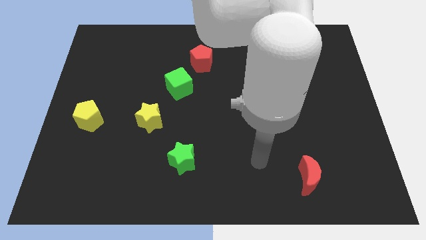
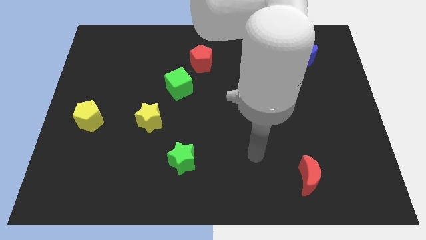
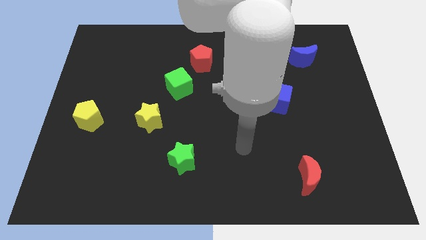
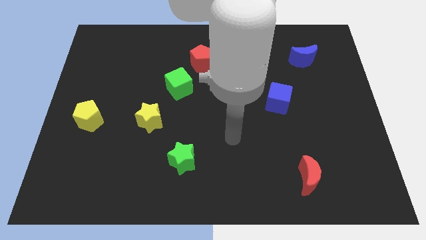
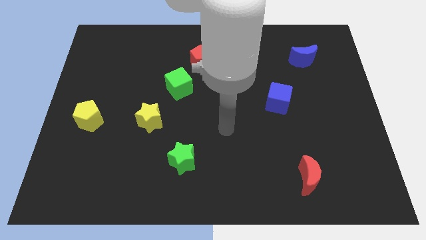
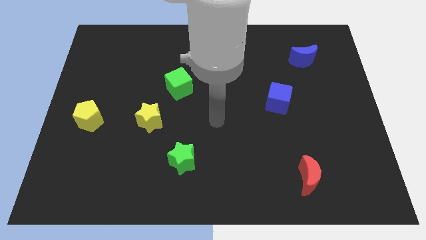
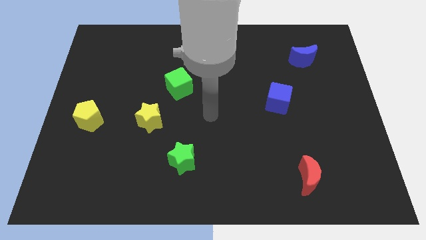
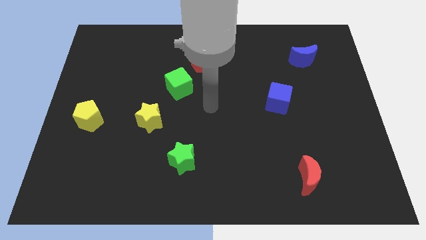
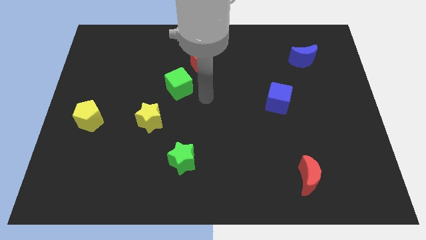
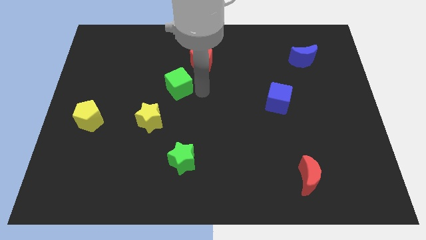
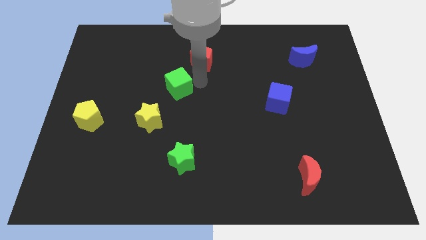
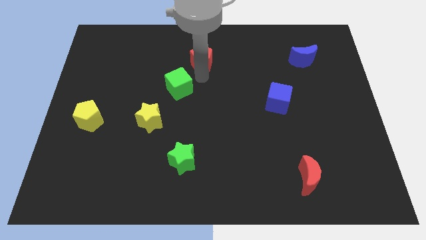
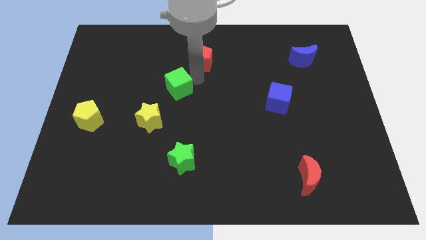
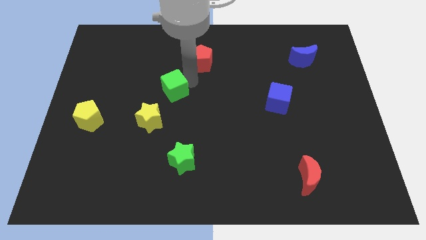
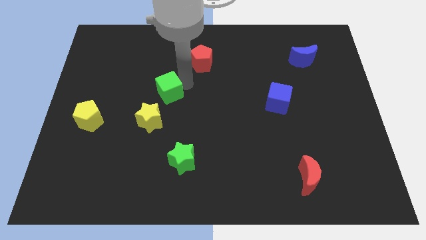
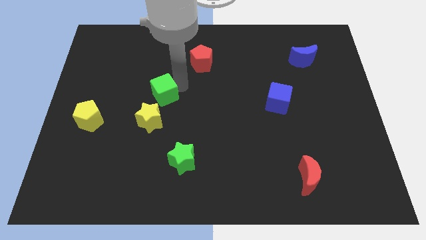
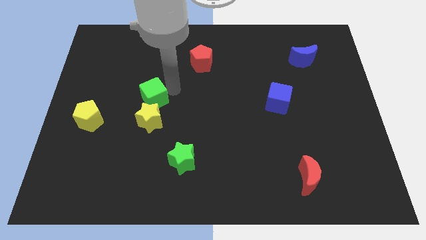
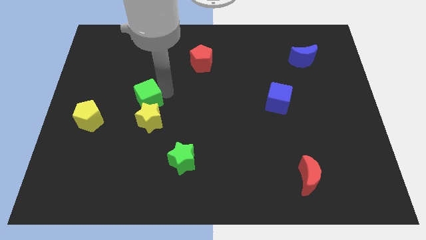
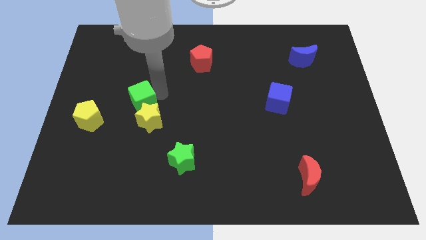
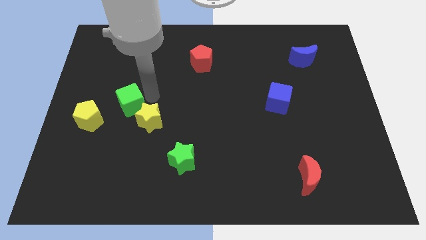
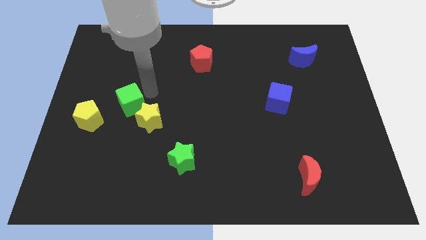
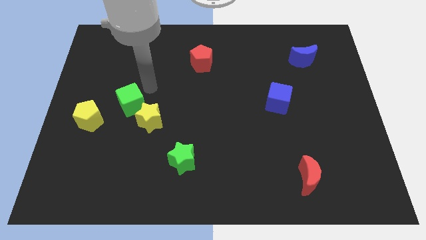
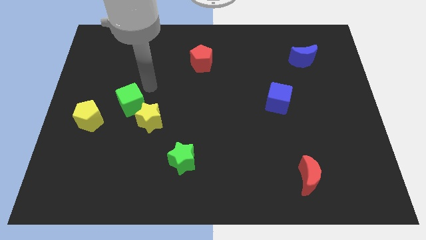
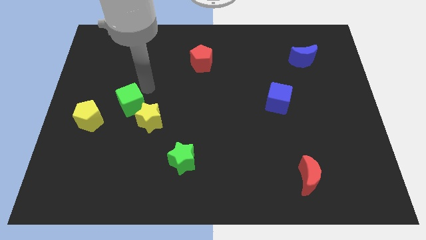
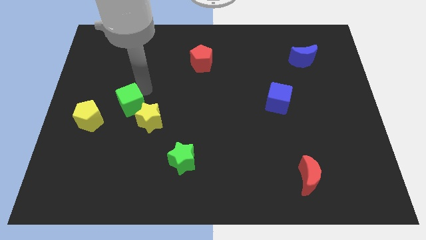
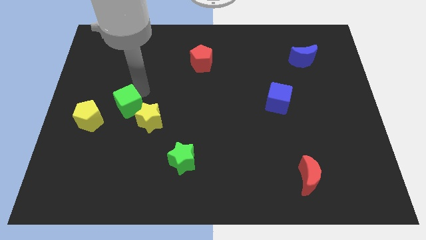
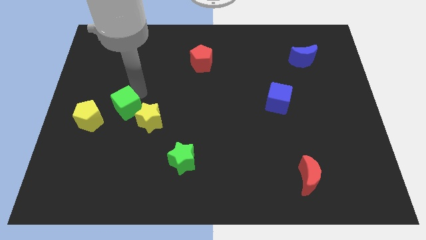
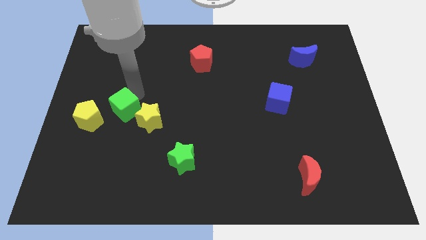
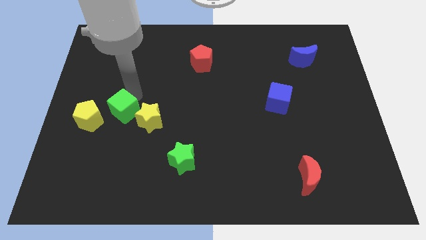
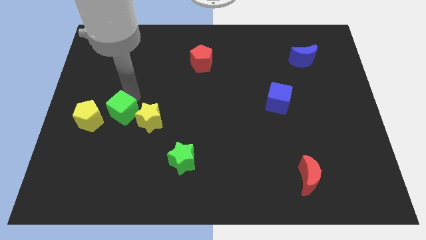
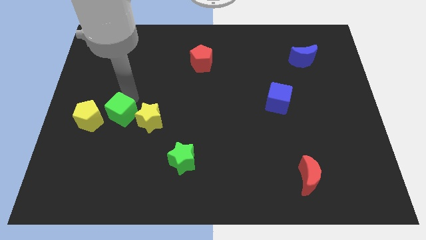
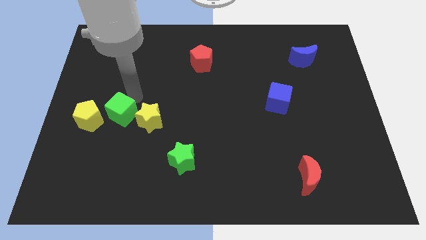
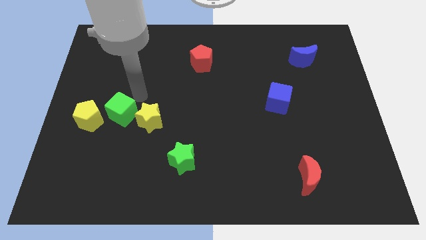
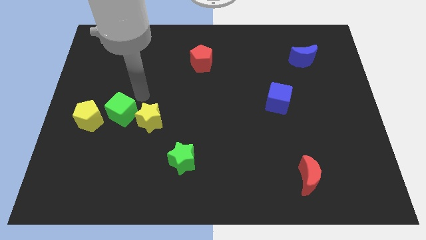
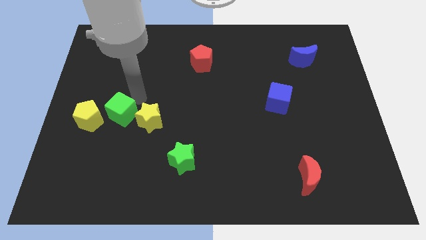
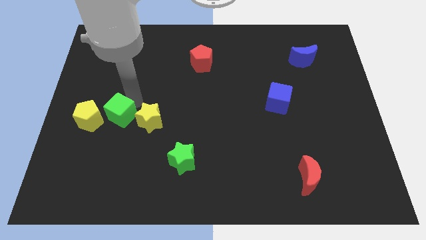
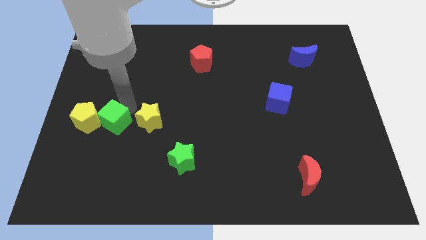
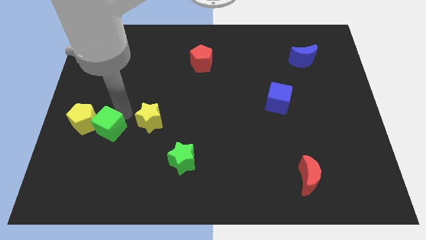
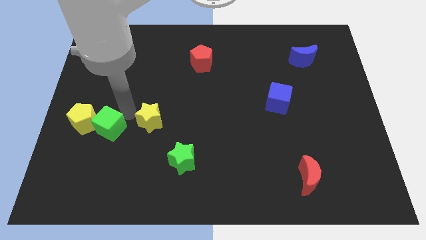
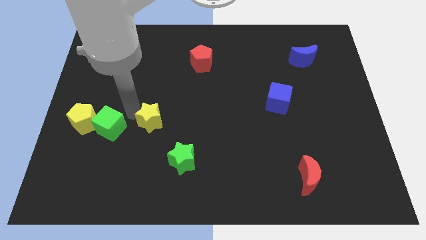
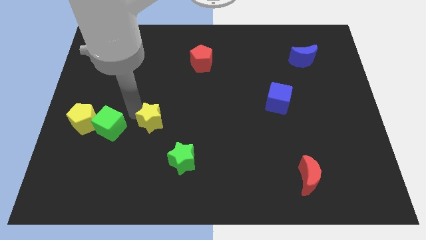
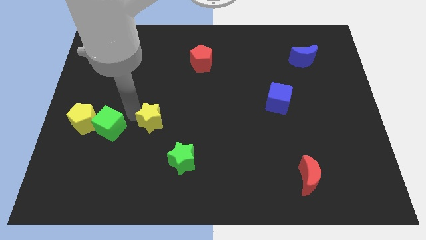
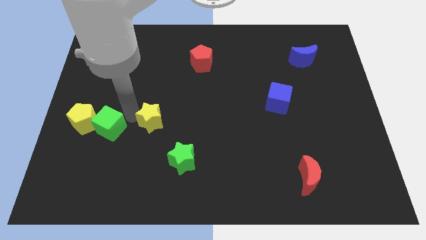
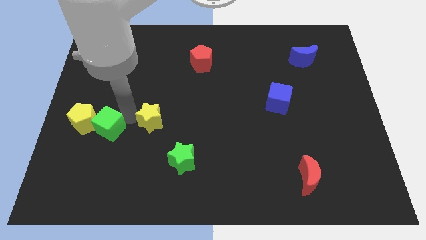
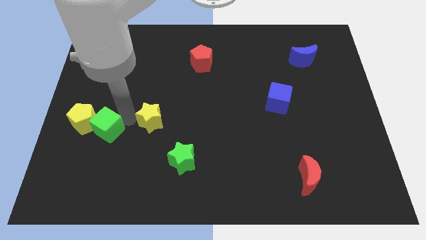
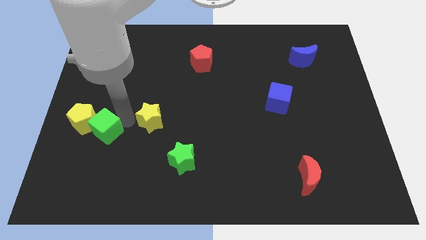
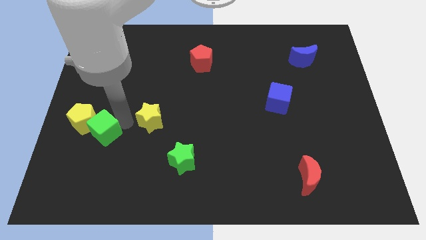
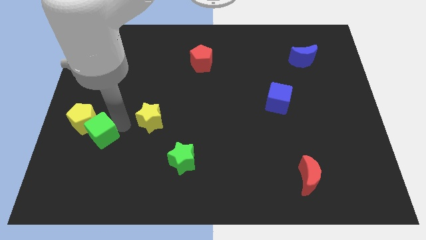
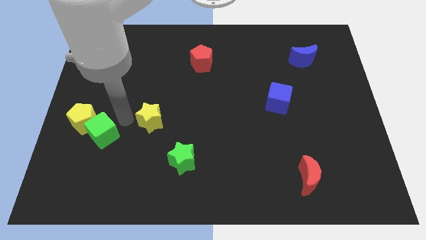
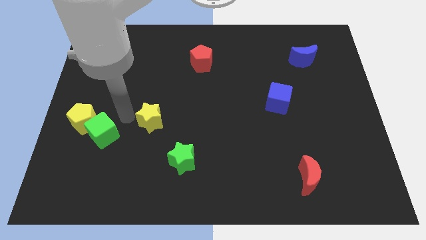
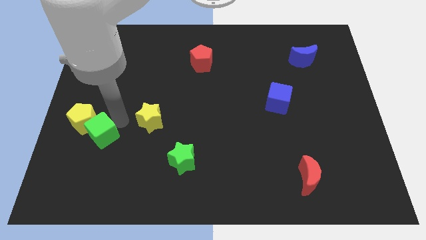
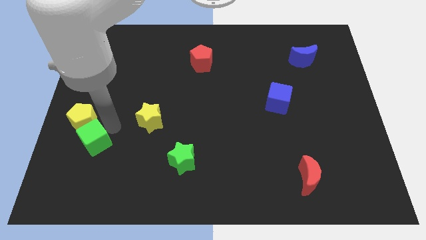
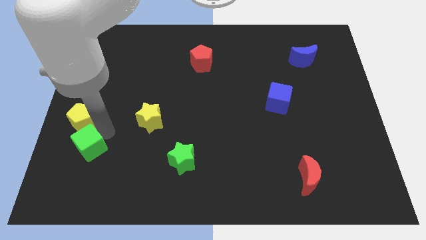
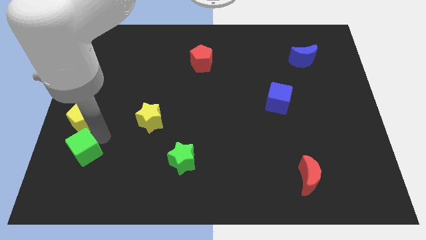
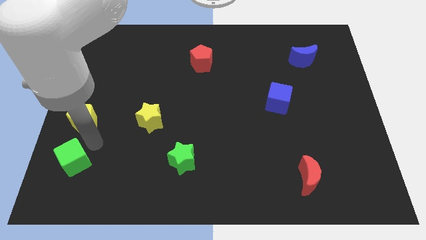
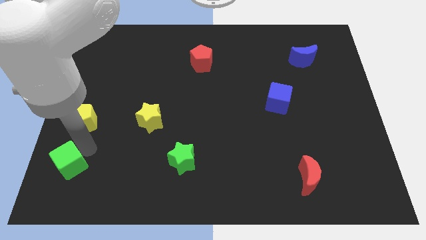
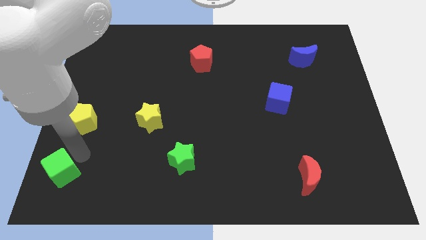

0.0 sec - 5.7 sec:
slide the green cube to the bottom left of the board
